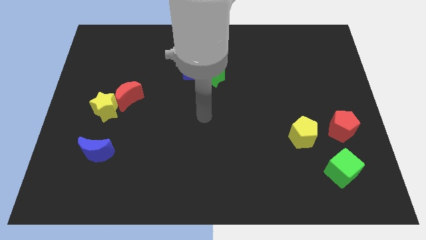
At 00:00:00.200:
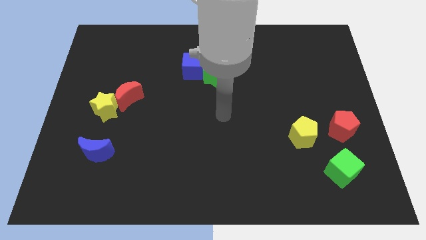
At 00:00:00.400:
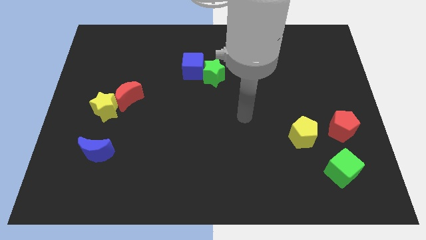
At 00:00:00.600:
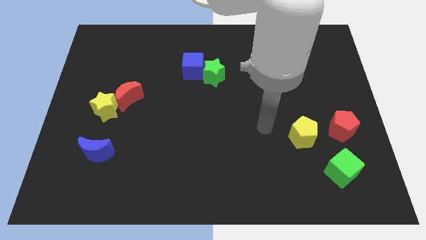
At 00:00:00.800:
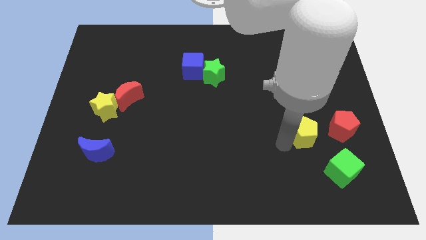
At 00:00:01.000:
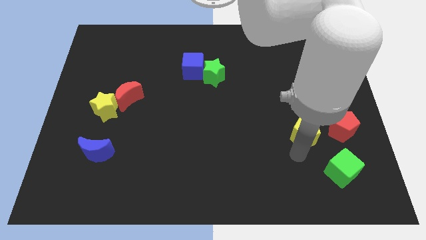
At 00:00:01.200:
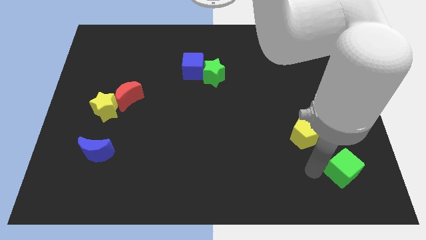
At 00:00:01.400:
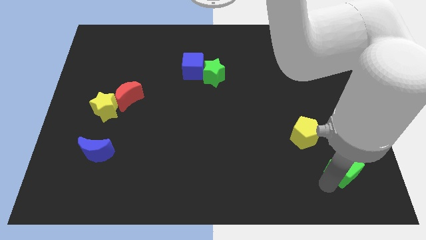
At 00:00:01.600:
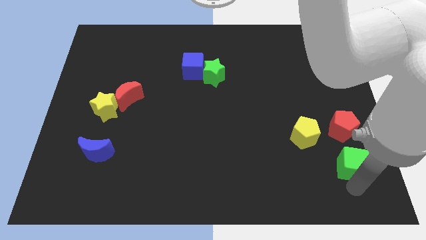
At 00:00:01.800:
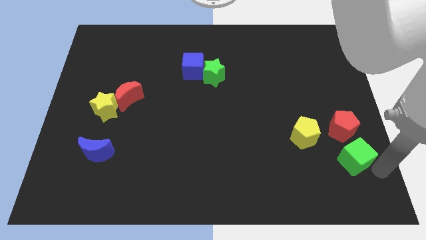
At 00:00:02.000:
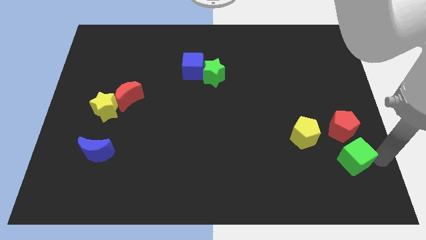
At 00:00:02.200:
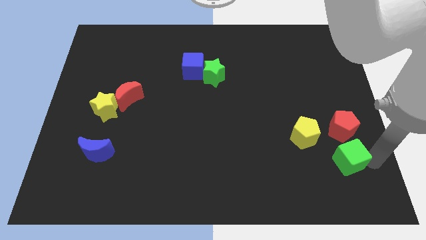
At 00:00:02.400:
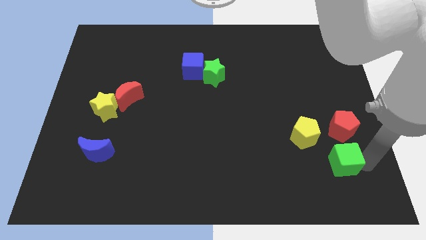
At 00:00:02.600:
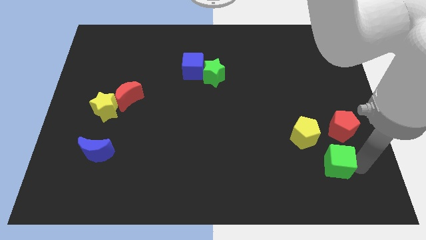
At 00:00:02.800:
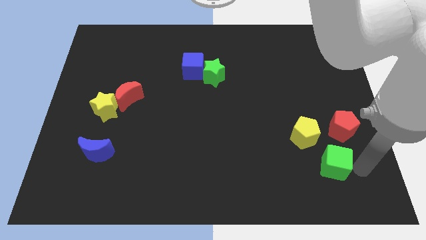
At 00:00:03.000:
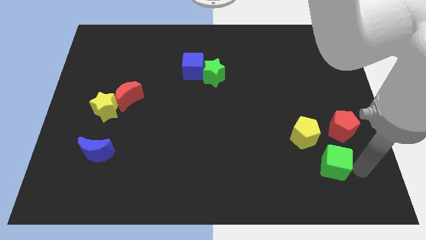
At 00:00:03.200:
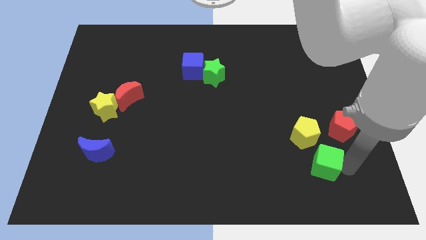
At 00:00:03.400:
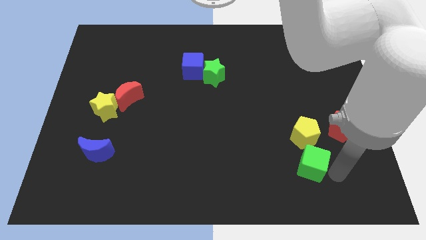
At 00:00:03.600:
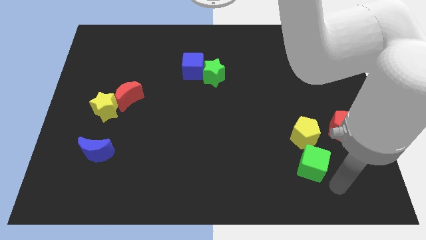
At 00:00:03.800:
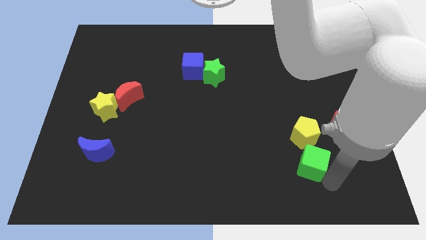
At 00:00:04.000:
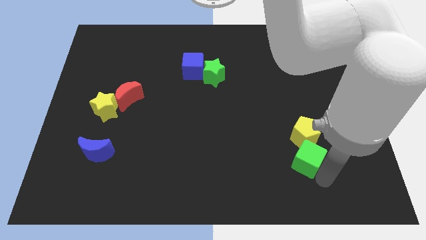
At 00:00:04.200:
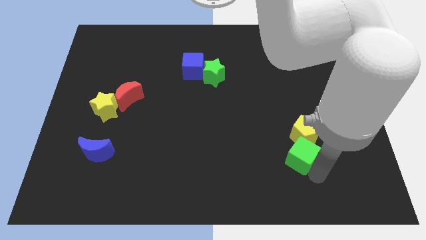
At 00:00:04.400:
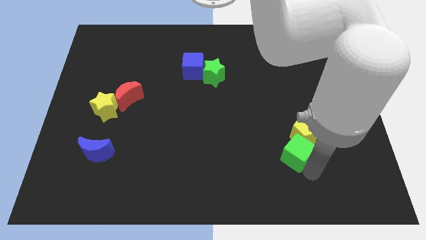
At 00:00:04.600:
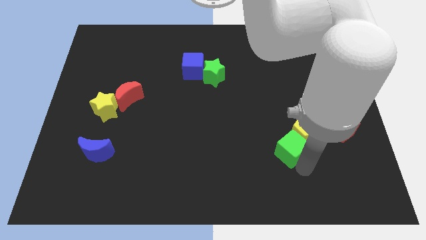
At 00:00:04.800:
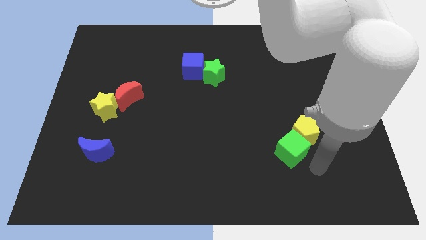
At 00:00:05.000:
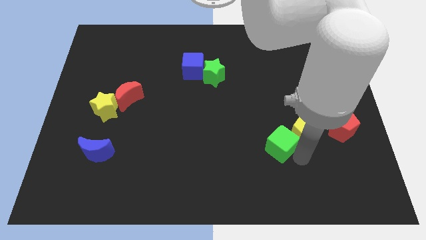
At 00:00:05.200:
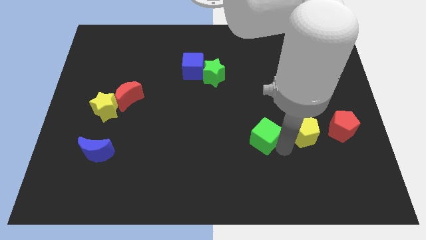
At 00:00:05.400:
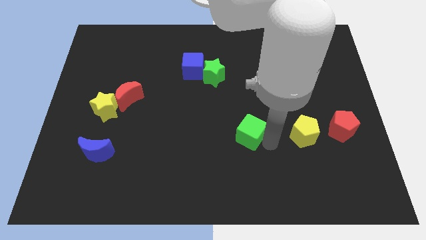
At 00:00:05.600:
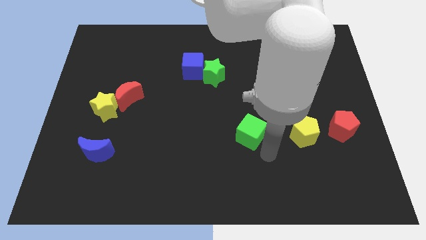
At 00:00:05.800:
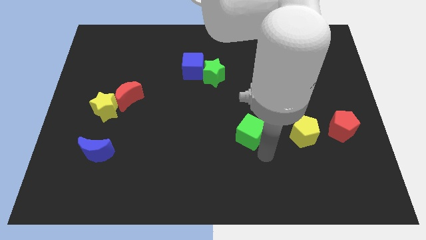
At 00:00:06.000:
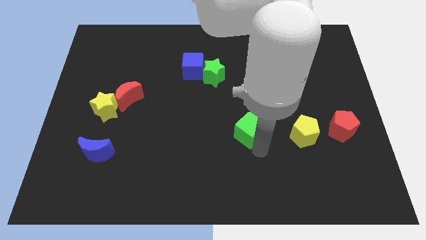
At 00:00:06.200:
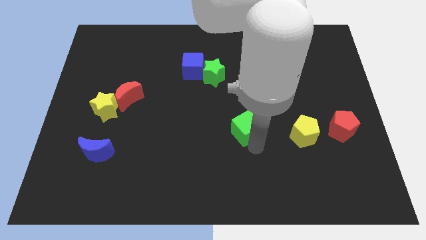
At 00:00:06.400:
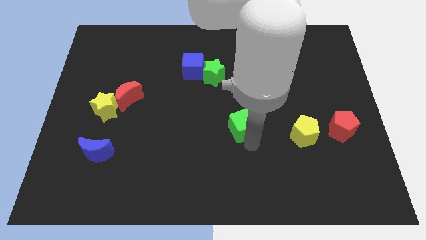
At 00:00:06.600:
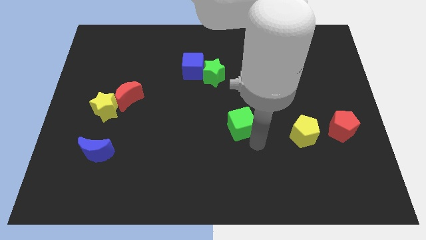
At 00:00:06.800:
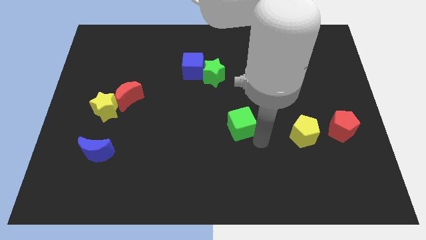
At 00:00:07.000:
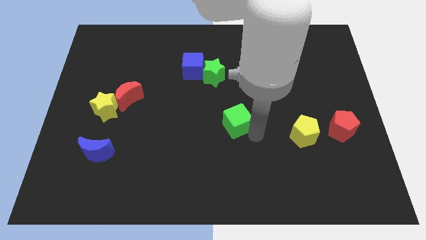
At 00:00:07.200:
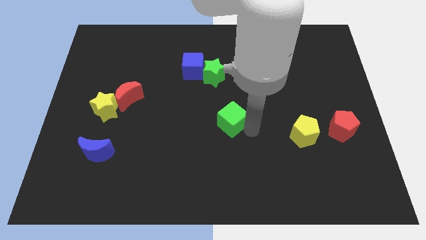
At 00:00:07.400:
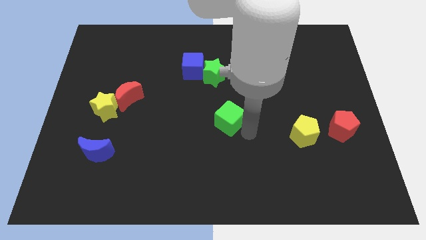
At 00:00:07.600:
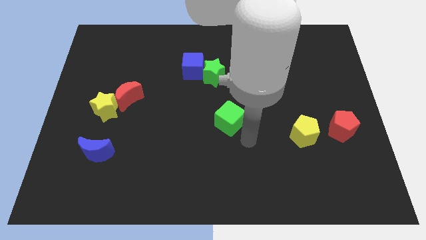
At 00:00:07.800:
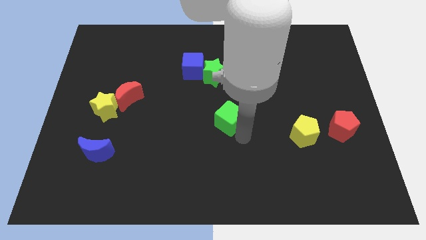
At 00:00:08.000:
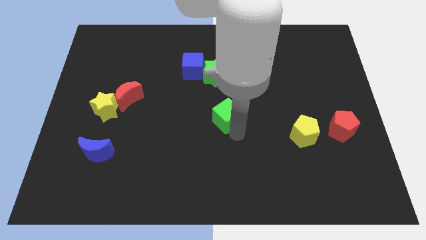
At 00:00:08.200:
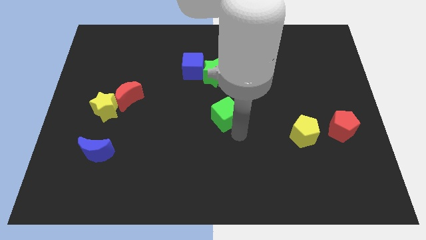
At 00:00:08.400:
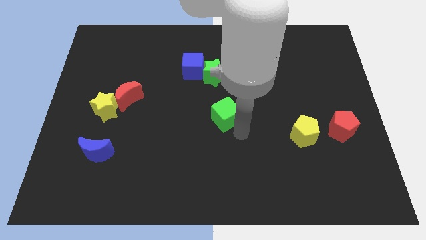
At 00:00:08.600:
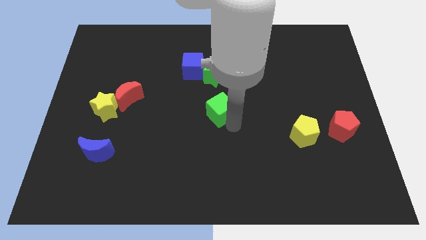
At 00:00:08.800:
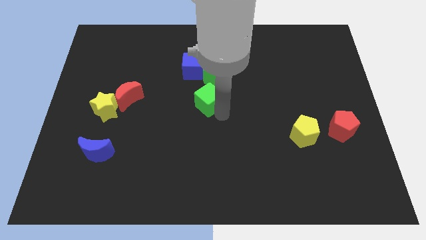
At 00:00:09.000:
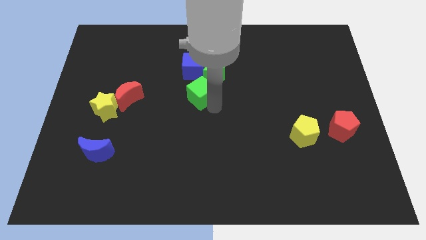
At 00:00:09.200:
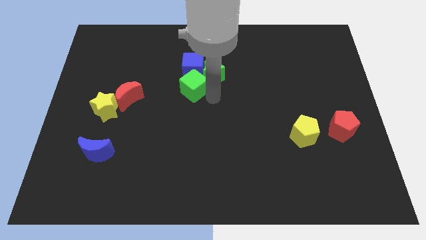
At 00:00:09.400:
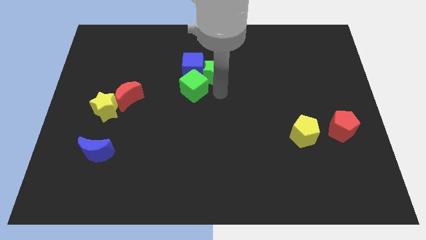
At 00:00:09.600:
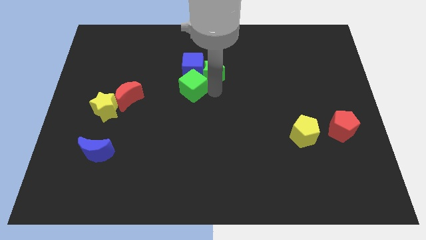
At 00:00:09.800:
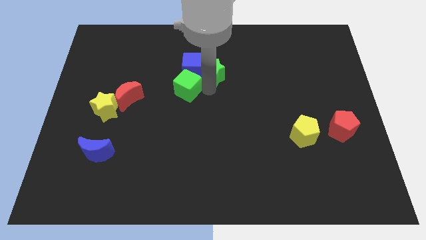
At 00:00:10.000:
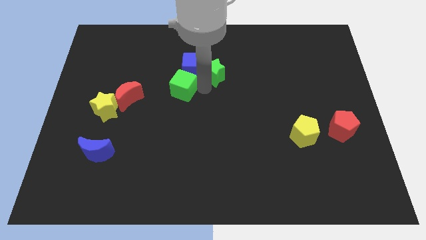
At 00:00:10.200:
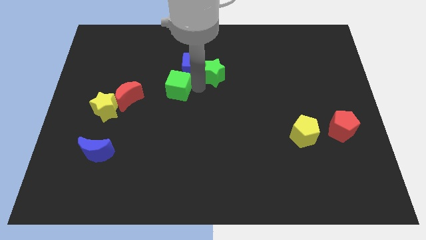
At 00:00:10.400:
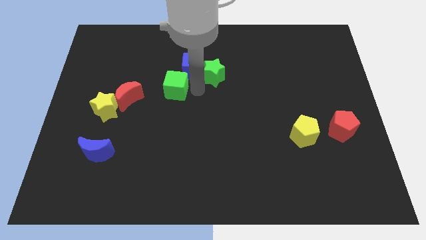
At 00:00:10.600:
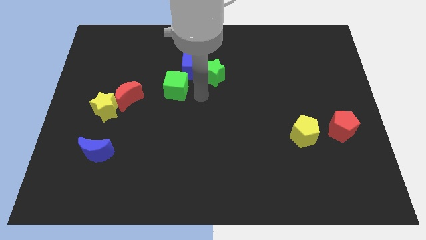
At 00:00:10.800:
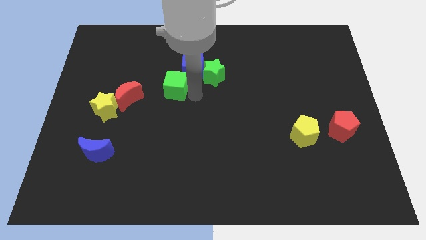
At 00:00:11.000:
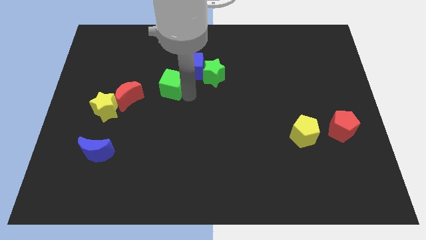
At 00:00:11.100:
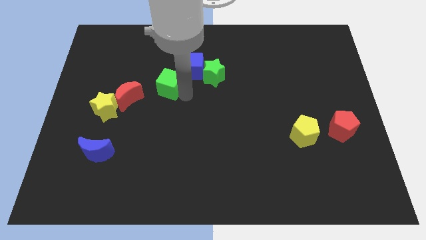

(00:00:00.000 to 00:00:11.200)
move the green cube diagonally up and to the right of the red moon

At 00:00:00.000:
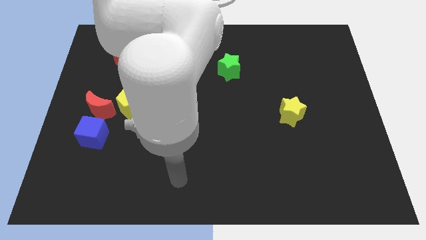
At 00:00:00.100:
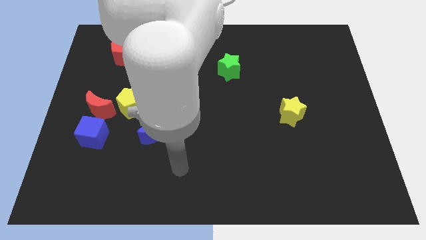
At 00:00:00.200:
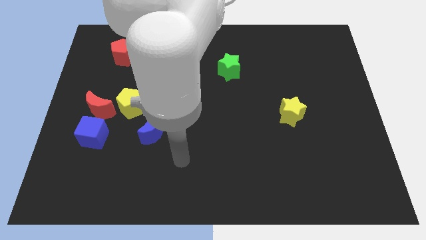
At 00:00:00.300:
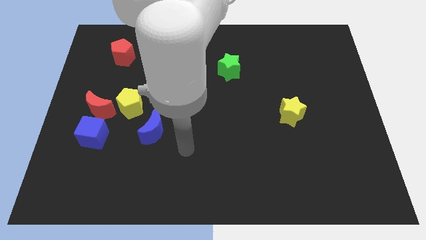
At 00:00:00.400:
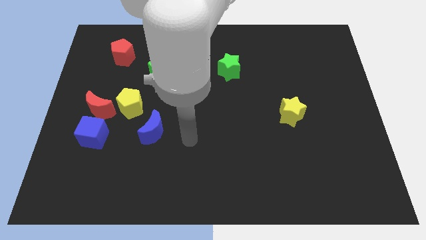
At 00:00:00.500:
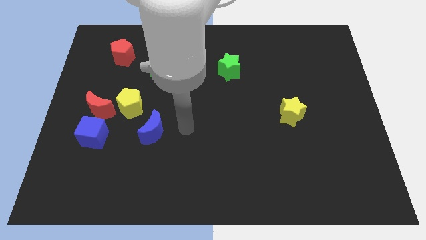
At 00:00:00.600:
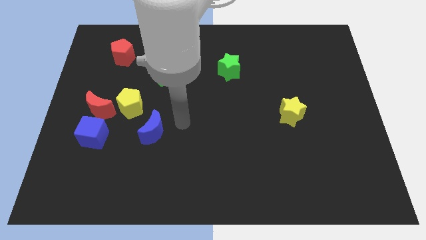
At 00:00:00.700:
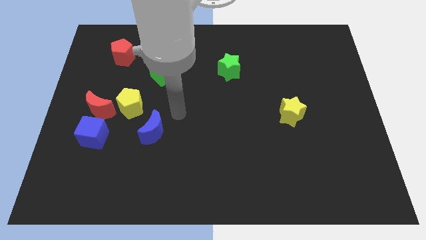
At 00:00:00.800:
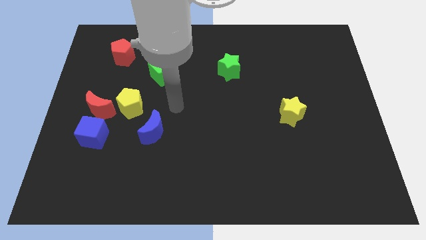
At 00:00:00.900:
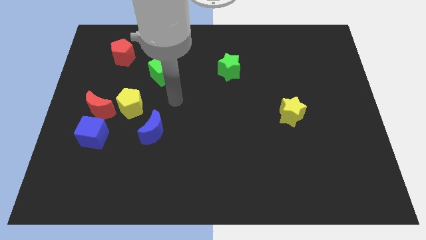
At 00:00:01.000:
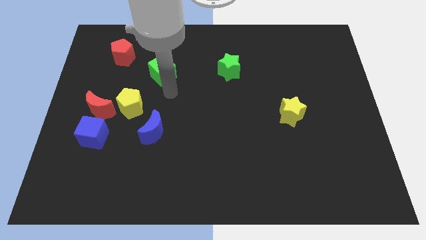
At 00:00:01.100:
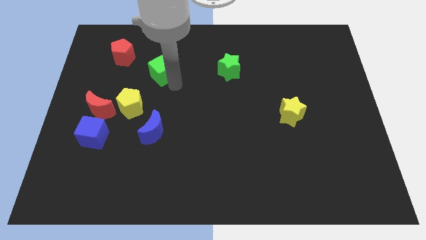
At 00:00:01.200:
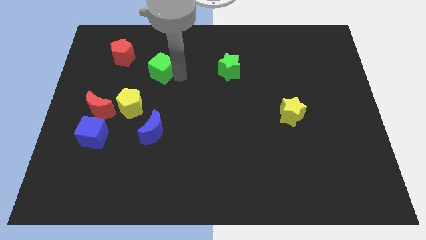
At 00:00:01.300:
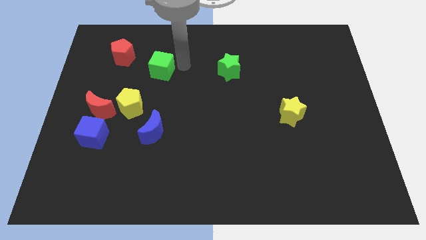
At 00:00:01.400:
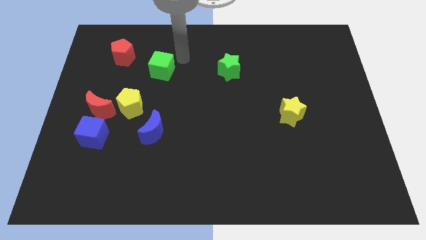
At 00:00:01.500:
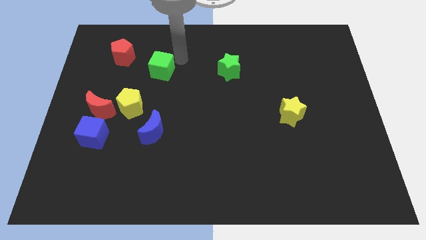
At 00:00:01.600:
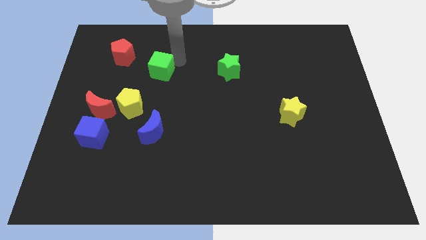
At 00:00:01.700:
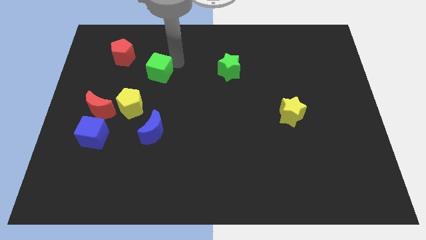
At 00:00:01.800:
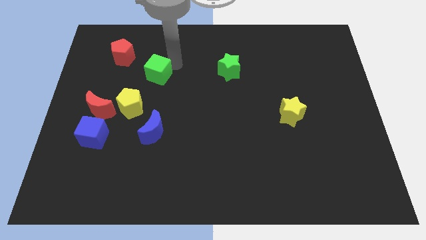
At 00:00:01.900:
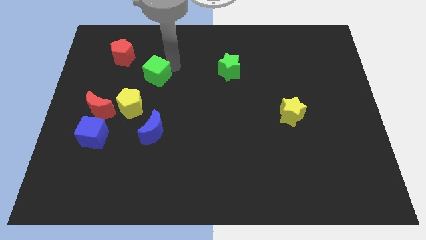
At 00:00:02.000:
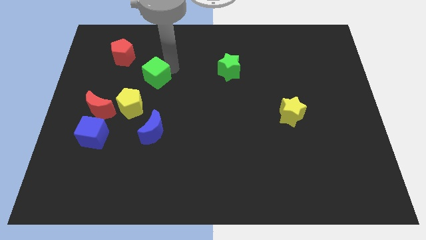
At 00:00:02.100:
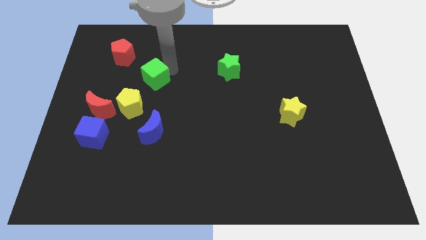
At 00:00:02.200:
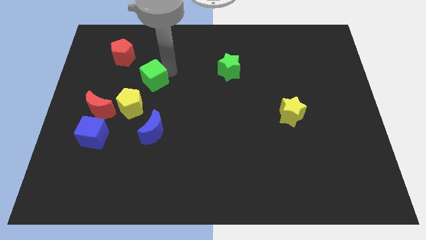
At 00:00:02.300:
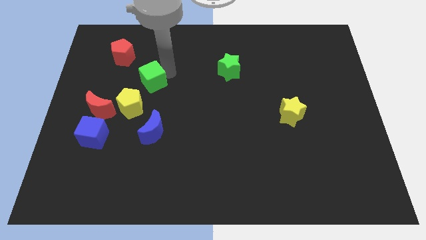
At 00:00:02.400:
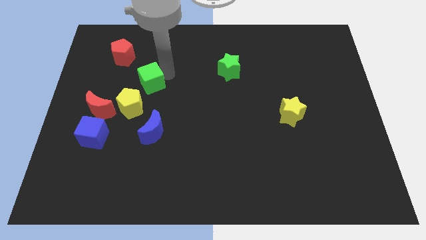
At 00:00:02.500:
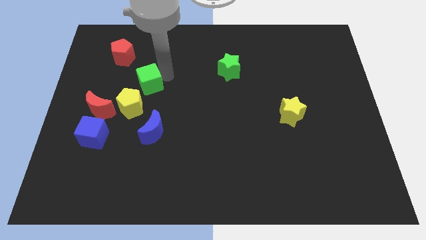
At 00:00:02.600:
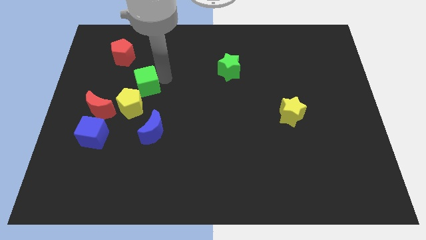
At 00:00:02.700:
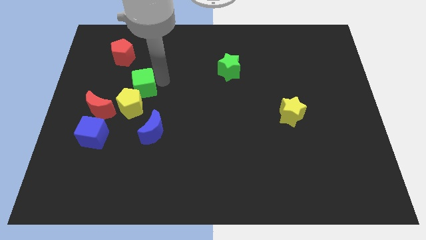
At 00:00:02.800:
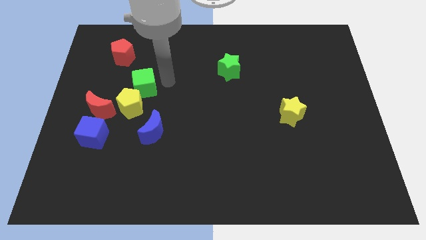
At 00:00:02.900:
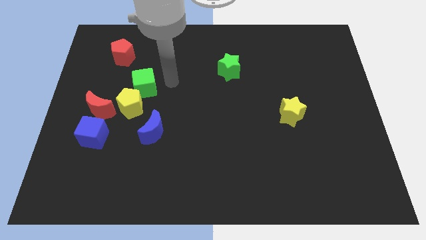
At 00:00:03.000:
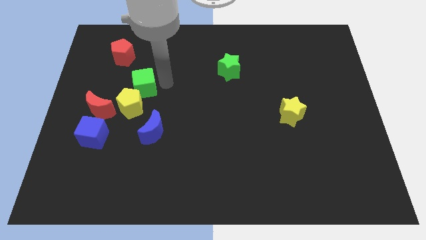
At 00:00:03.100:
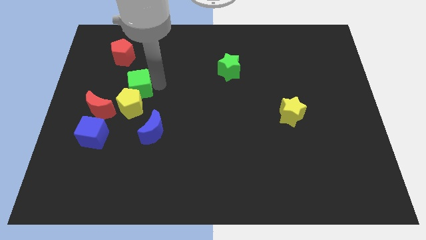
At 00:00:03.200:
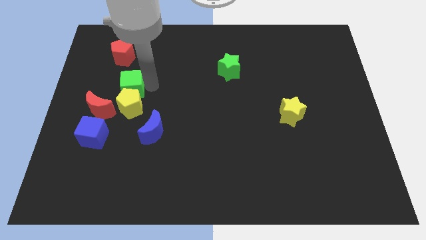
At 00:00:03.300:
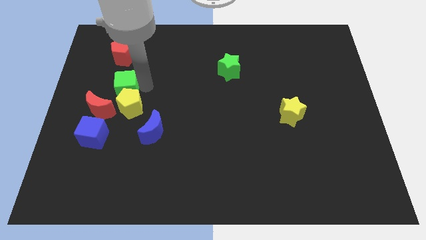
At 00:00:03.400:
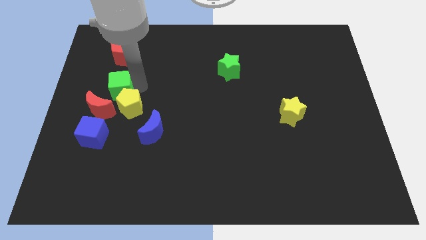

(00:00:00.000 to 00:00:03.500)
slide the green cube to the top of the blue cube
